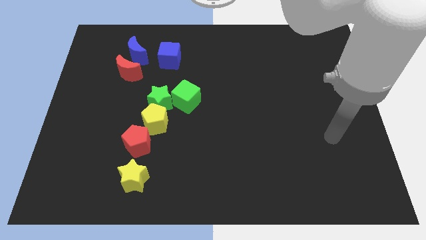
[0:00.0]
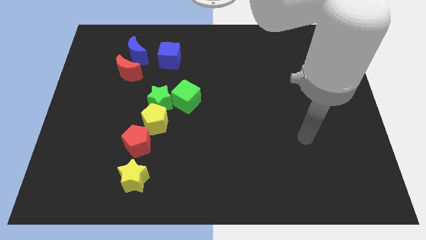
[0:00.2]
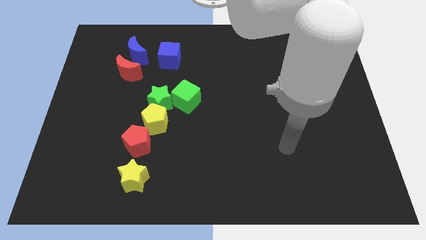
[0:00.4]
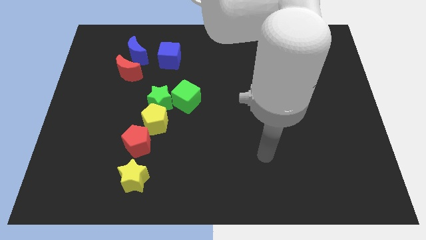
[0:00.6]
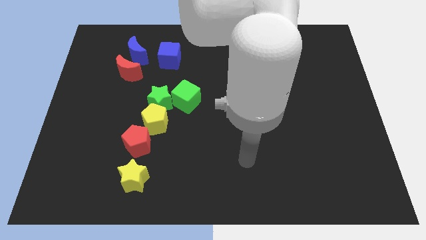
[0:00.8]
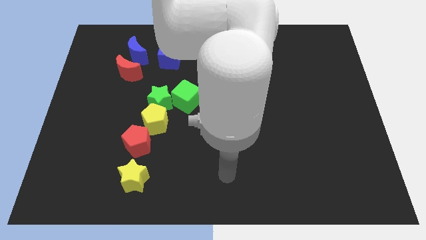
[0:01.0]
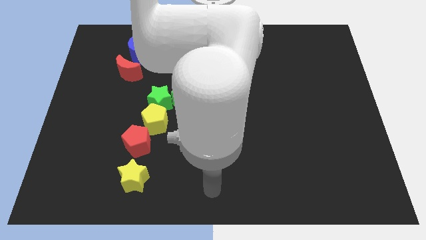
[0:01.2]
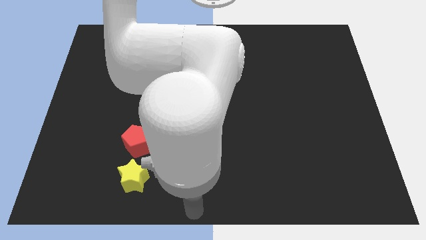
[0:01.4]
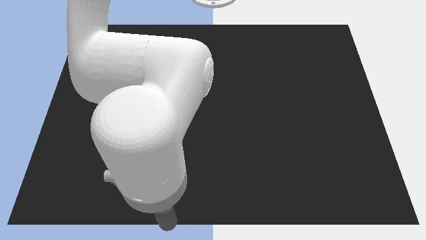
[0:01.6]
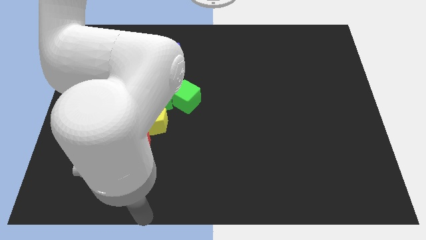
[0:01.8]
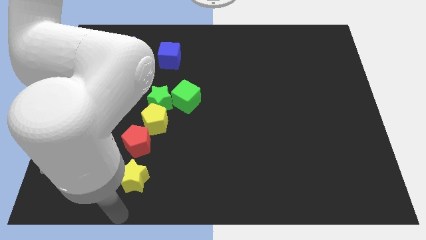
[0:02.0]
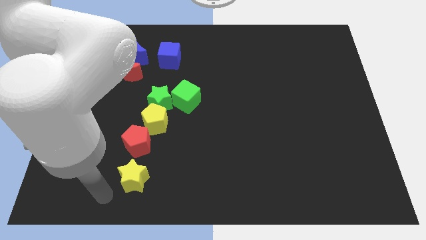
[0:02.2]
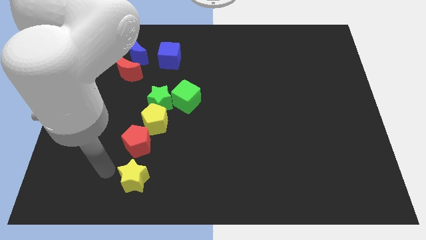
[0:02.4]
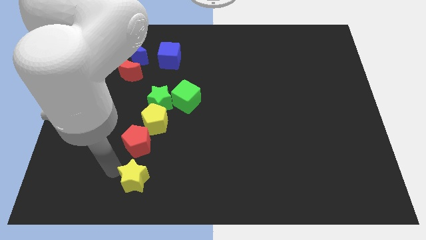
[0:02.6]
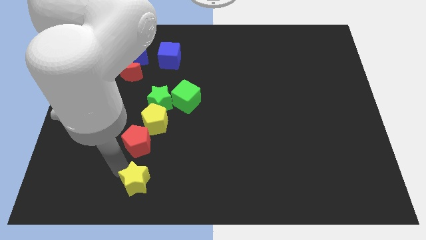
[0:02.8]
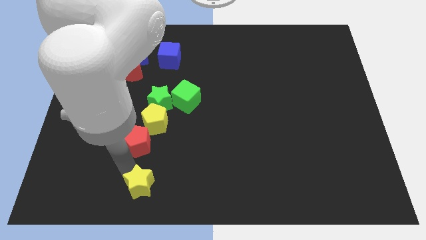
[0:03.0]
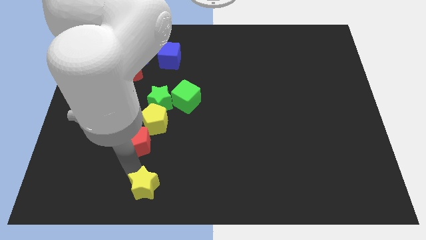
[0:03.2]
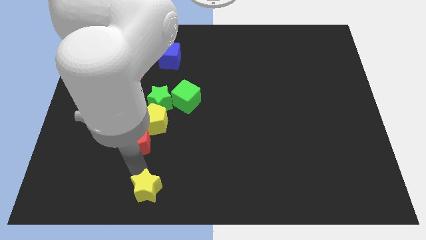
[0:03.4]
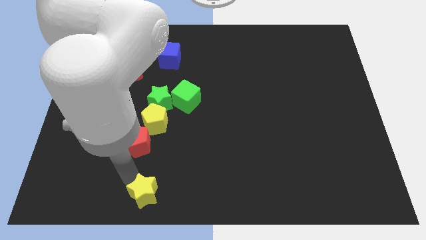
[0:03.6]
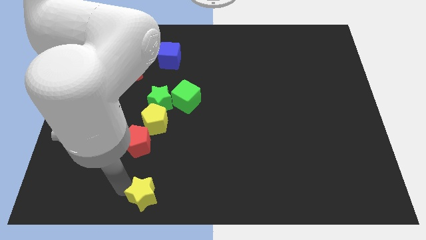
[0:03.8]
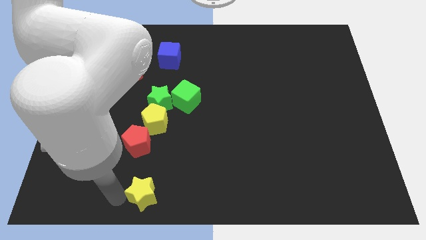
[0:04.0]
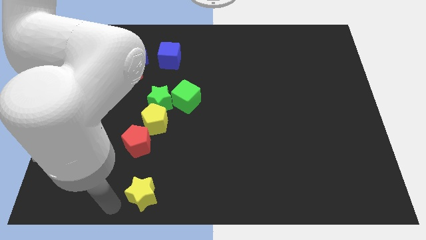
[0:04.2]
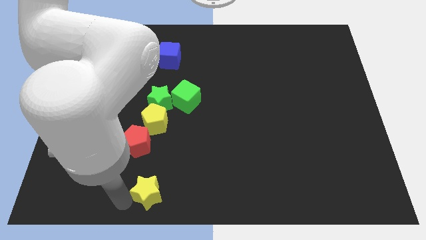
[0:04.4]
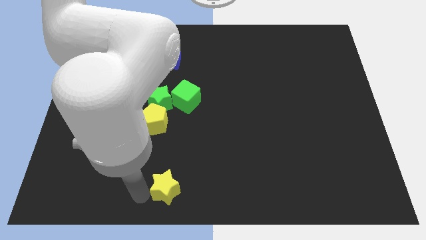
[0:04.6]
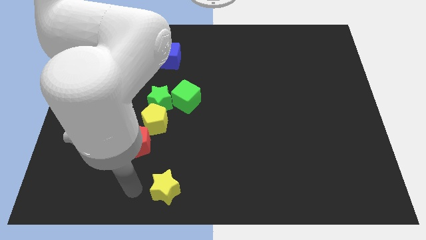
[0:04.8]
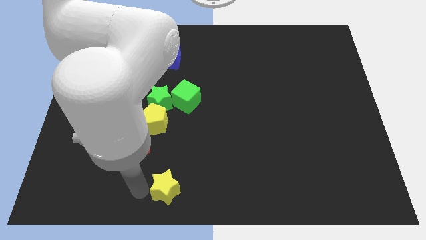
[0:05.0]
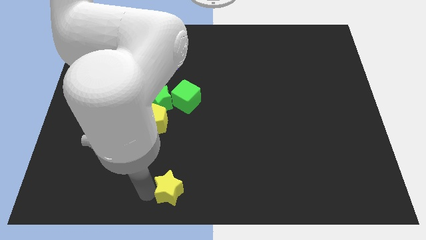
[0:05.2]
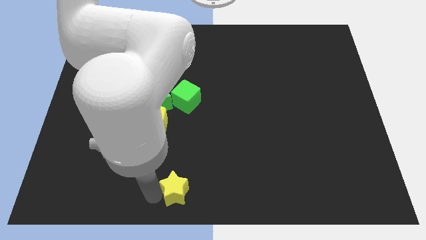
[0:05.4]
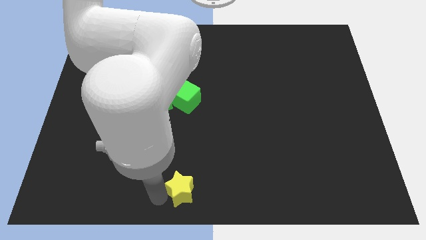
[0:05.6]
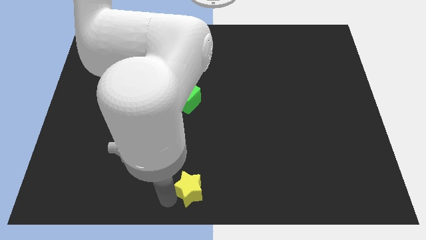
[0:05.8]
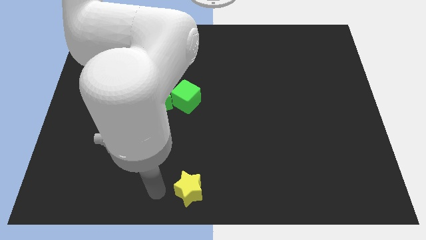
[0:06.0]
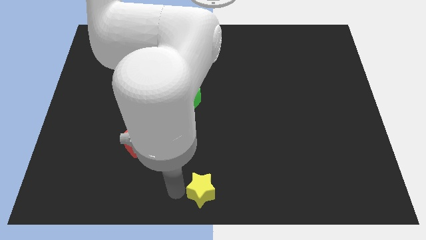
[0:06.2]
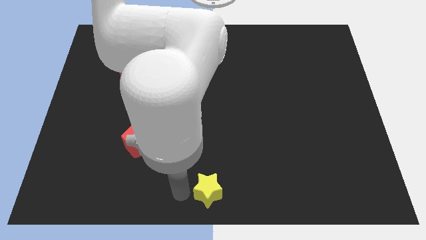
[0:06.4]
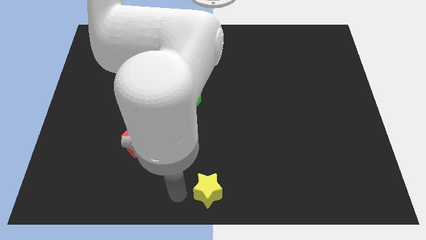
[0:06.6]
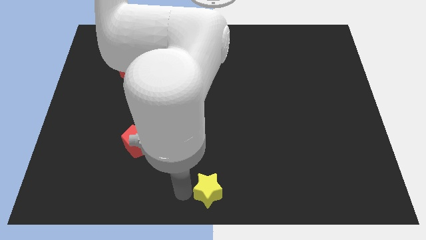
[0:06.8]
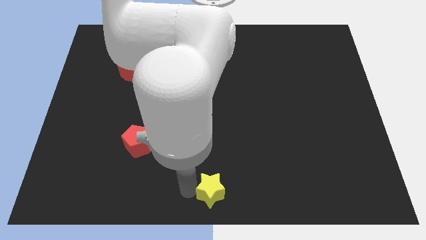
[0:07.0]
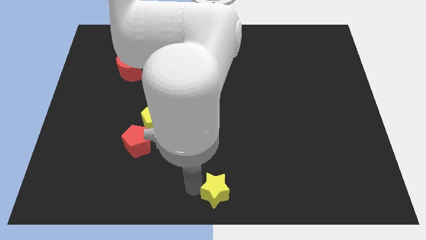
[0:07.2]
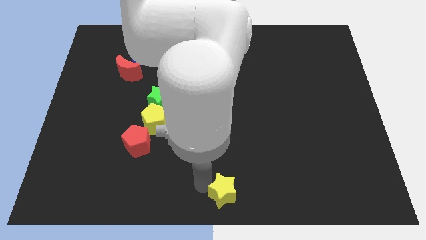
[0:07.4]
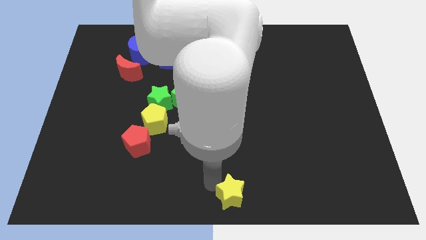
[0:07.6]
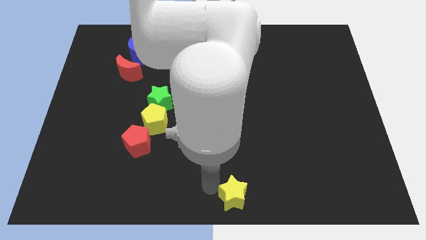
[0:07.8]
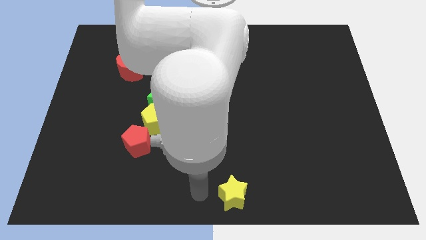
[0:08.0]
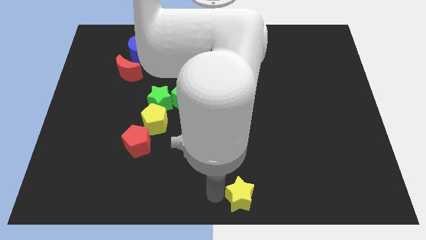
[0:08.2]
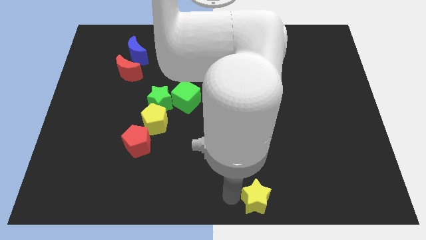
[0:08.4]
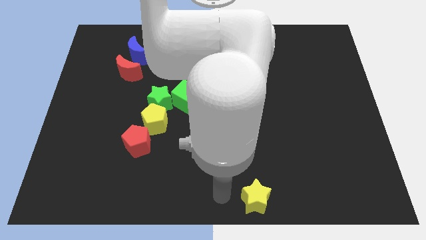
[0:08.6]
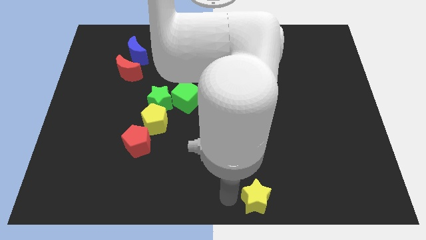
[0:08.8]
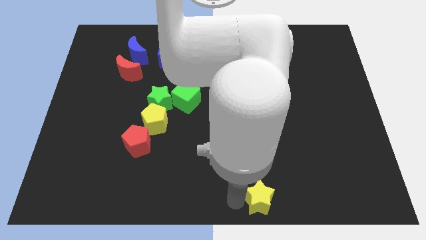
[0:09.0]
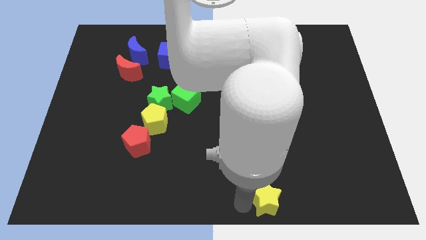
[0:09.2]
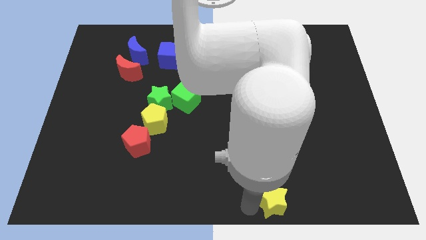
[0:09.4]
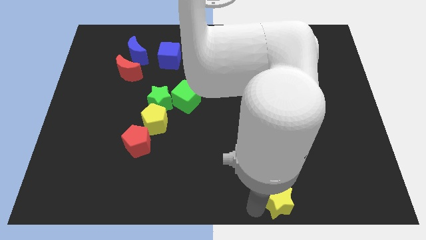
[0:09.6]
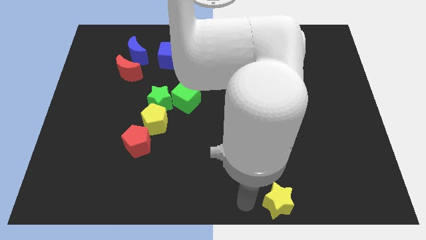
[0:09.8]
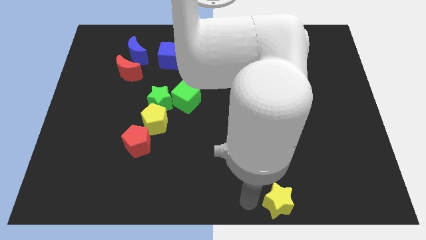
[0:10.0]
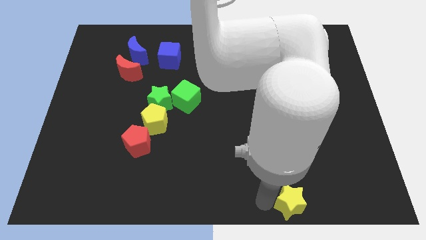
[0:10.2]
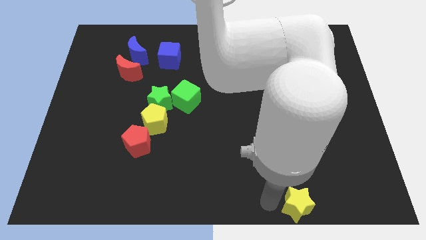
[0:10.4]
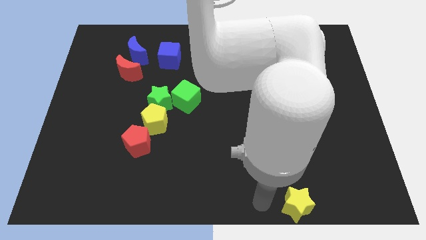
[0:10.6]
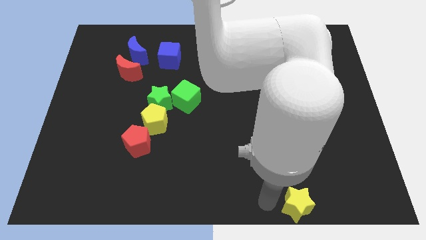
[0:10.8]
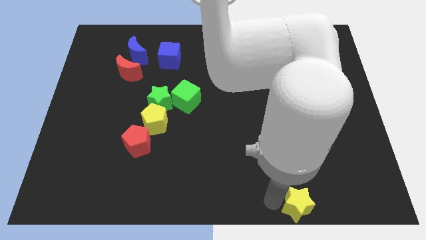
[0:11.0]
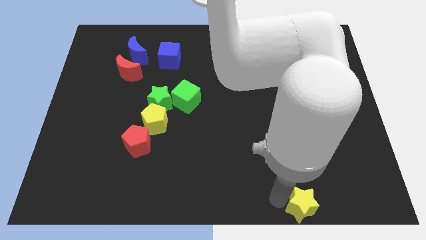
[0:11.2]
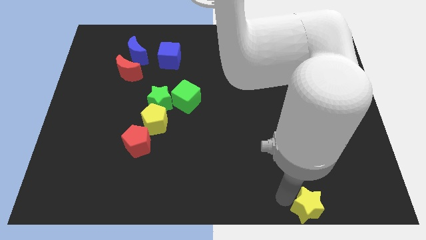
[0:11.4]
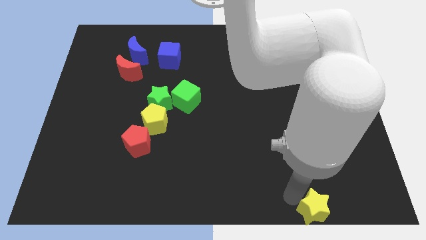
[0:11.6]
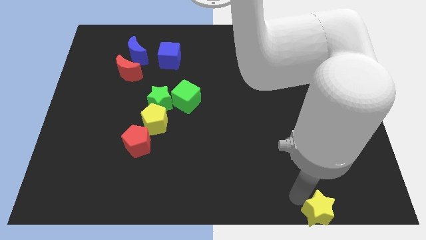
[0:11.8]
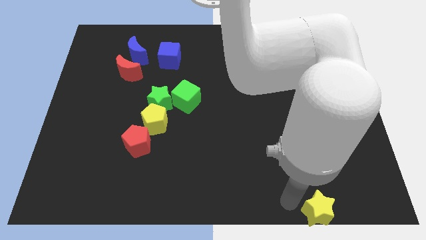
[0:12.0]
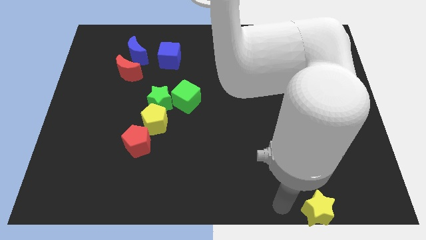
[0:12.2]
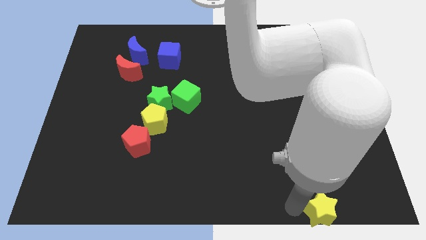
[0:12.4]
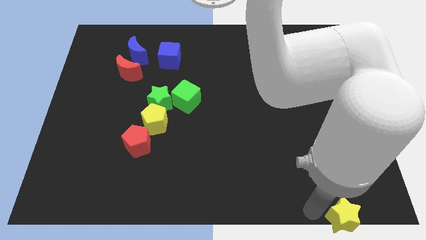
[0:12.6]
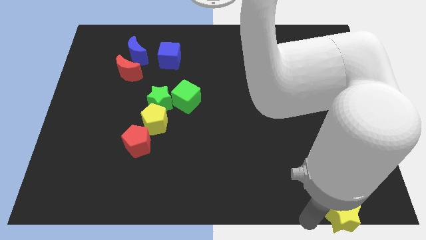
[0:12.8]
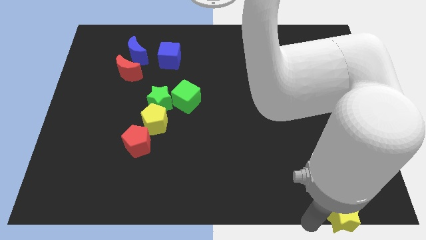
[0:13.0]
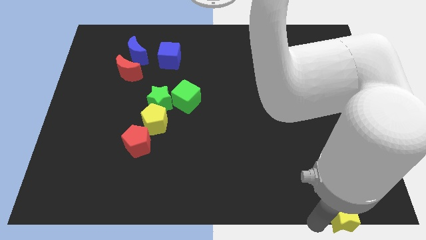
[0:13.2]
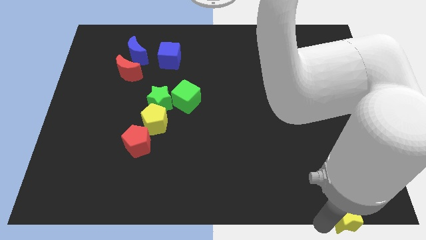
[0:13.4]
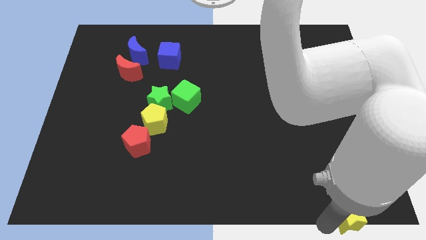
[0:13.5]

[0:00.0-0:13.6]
push the yellow star to the bottom right
